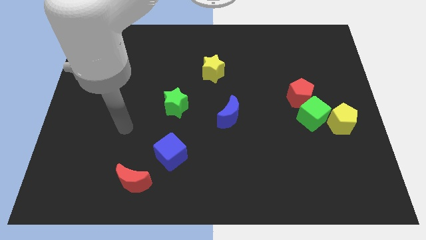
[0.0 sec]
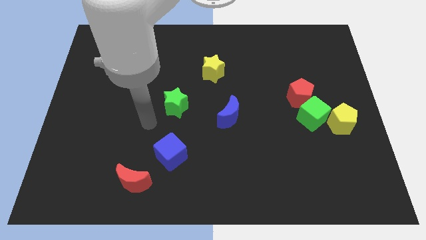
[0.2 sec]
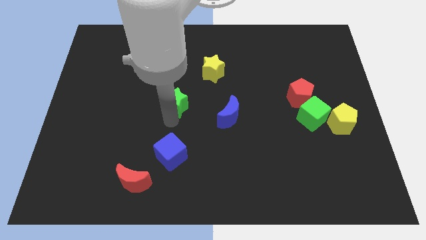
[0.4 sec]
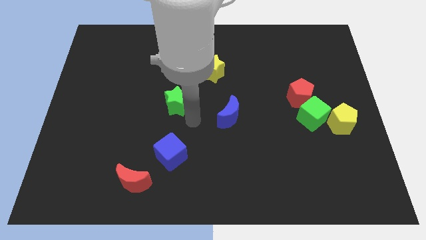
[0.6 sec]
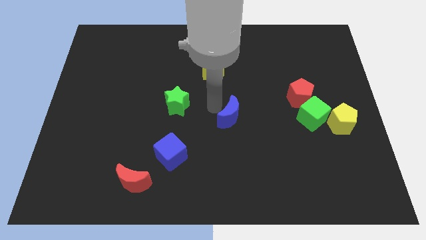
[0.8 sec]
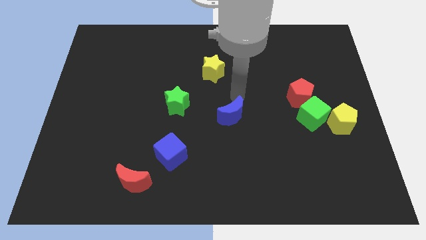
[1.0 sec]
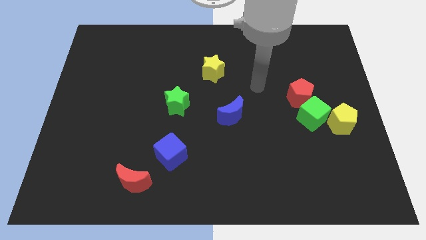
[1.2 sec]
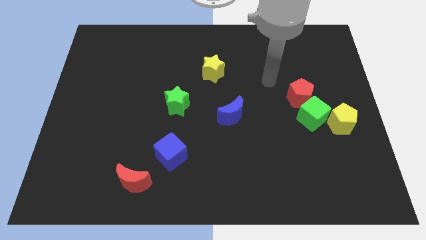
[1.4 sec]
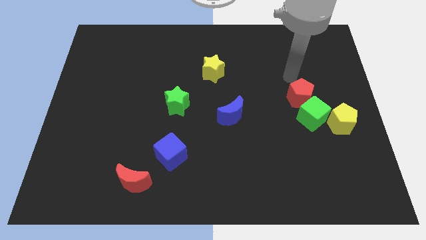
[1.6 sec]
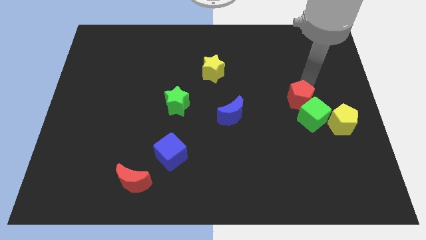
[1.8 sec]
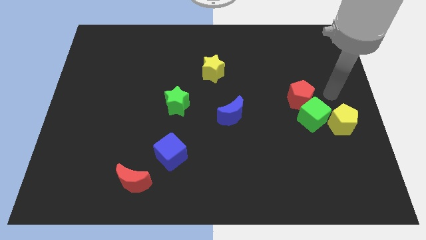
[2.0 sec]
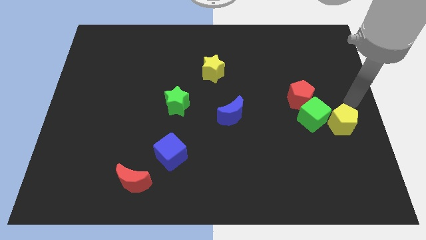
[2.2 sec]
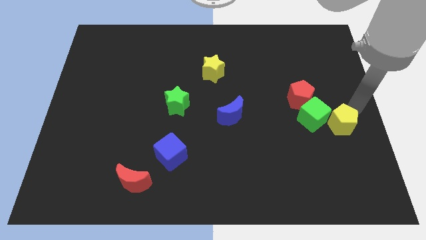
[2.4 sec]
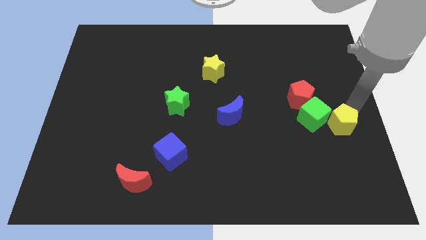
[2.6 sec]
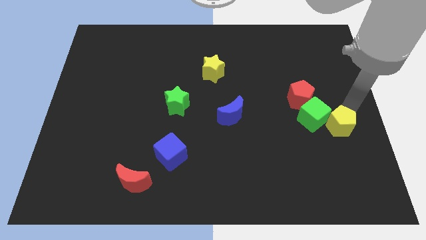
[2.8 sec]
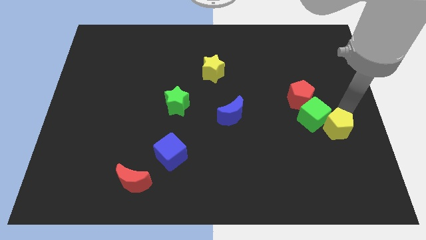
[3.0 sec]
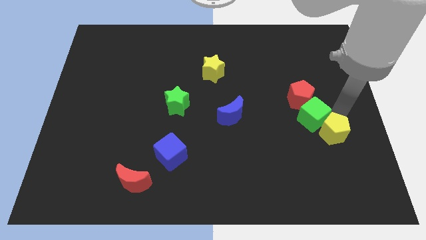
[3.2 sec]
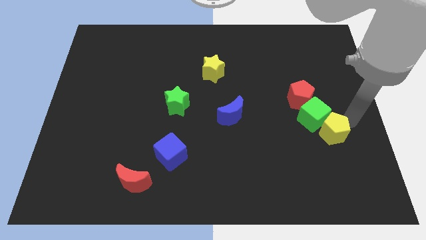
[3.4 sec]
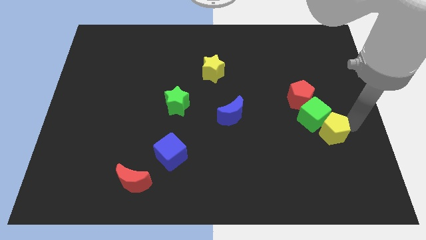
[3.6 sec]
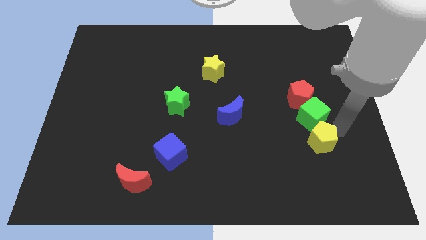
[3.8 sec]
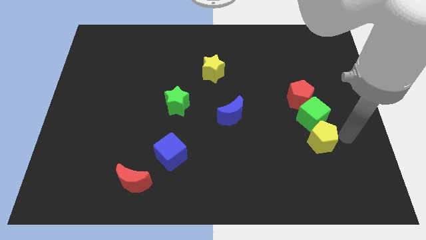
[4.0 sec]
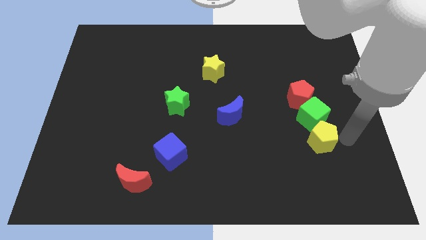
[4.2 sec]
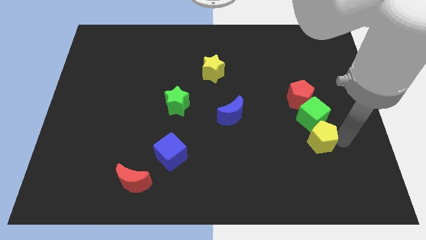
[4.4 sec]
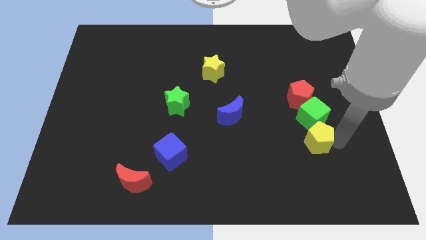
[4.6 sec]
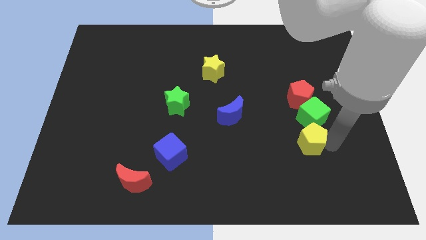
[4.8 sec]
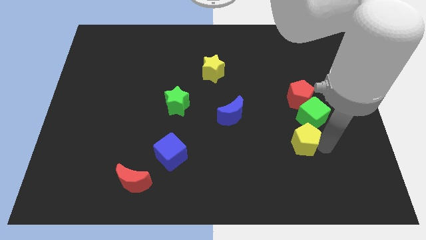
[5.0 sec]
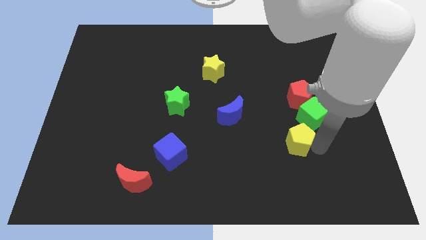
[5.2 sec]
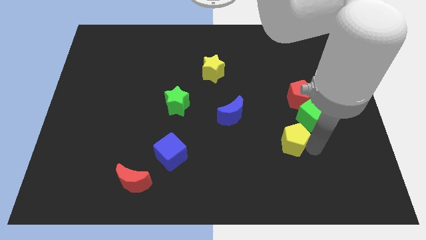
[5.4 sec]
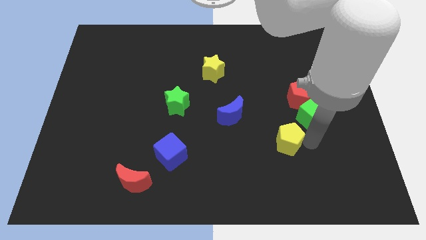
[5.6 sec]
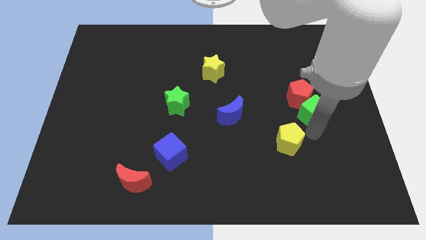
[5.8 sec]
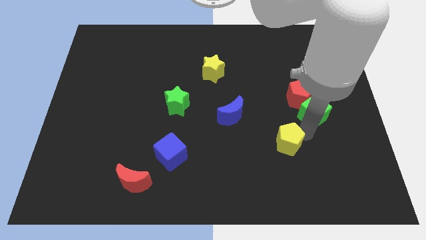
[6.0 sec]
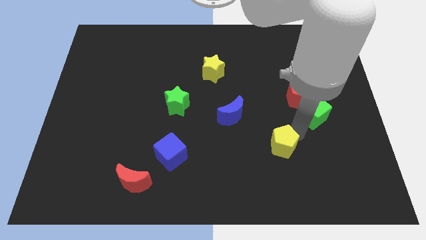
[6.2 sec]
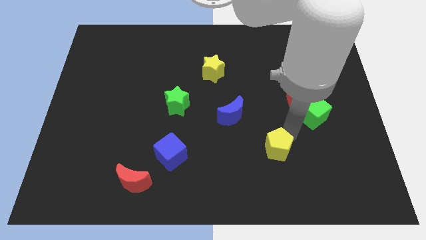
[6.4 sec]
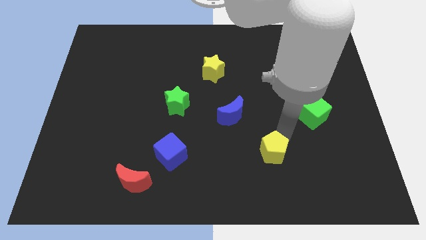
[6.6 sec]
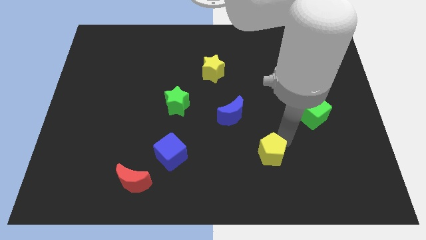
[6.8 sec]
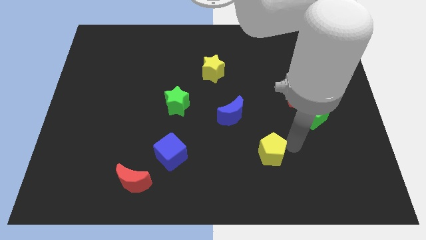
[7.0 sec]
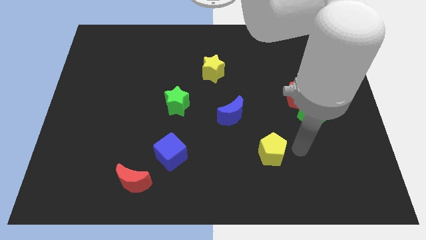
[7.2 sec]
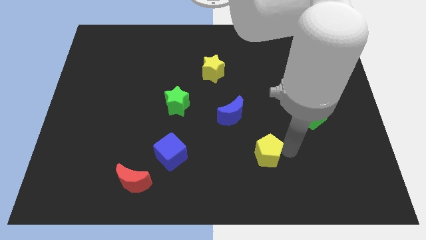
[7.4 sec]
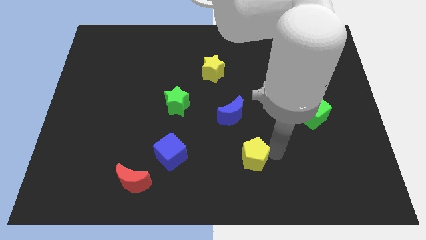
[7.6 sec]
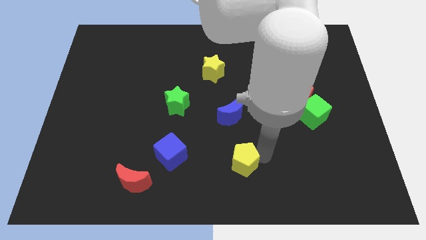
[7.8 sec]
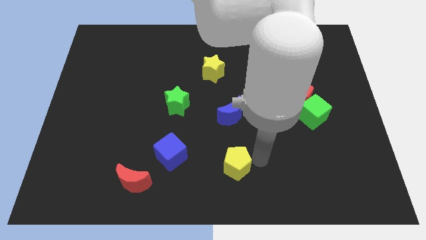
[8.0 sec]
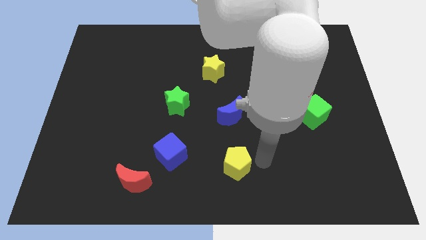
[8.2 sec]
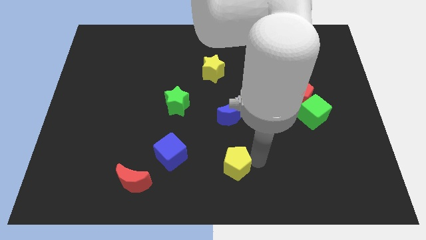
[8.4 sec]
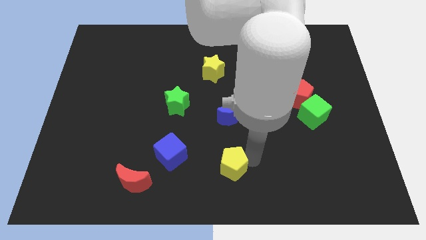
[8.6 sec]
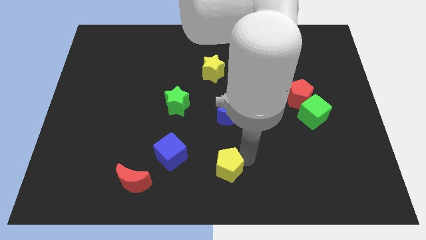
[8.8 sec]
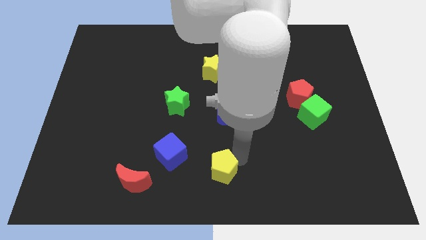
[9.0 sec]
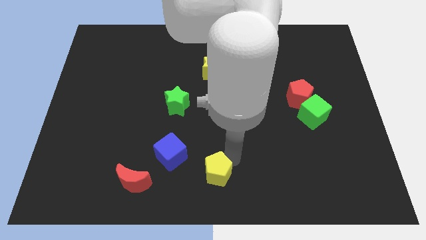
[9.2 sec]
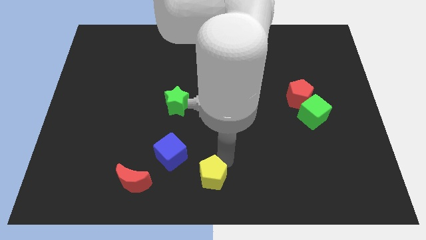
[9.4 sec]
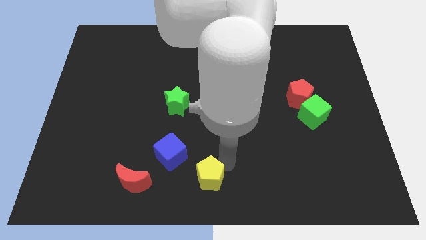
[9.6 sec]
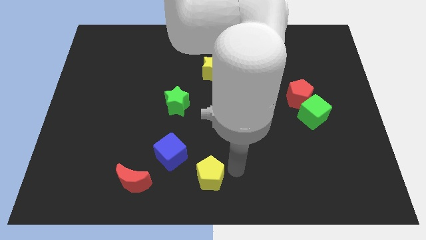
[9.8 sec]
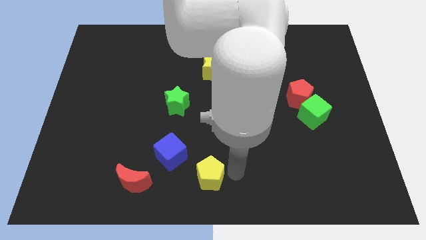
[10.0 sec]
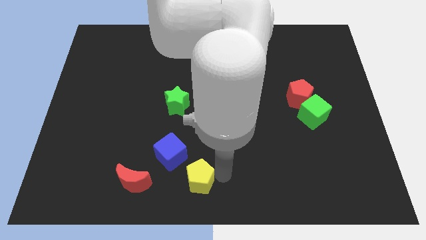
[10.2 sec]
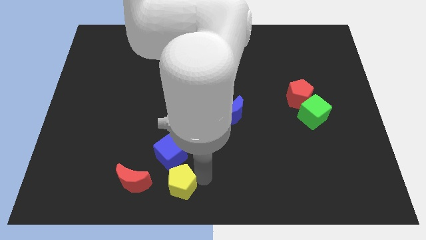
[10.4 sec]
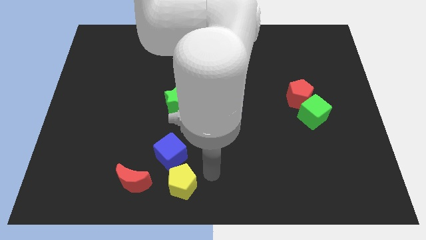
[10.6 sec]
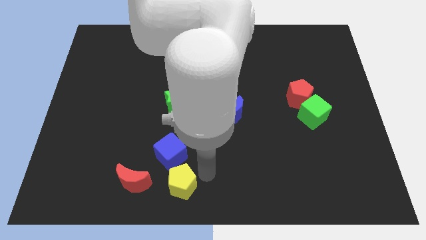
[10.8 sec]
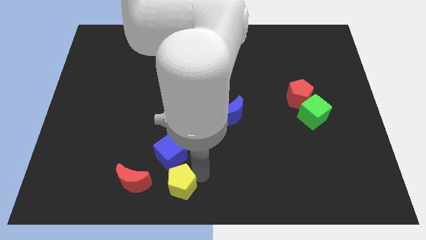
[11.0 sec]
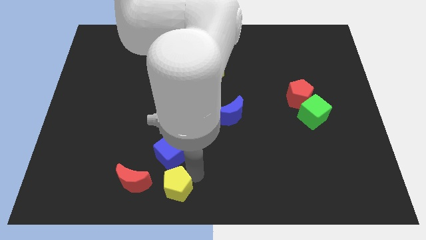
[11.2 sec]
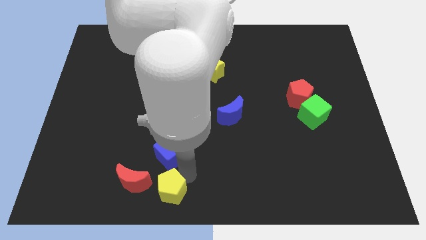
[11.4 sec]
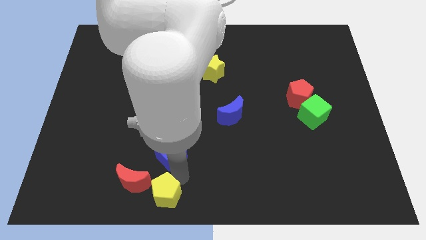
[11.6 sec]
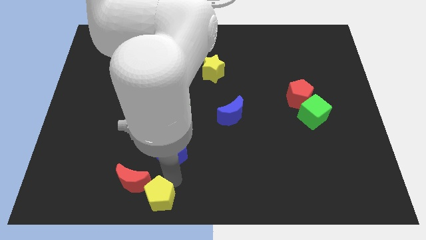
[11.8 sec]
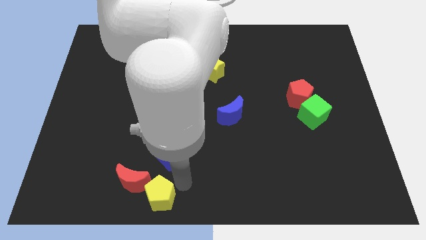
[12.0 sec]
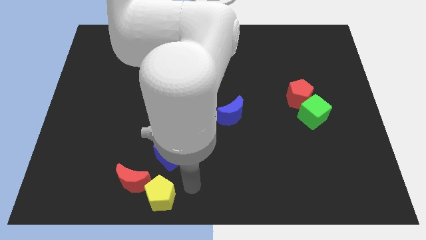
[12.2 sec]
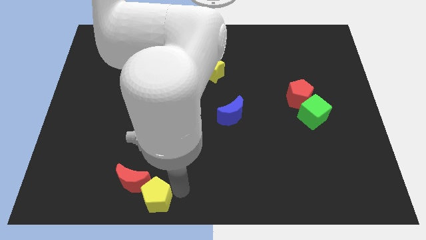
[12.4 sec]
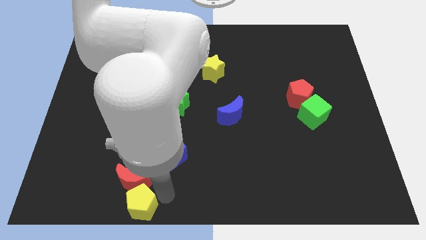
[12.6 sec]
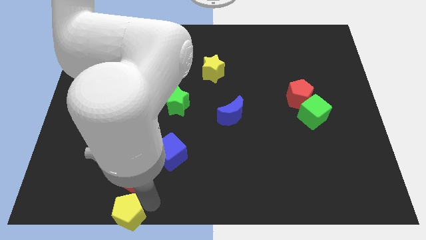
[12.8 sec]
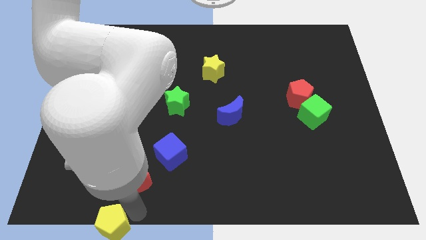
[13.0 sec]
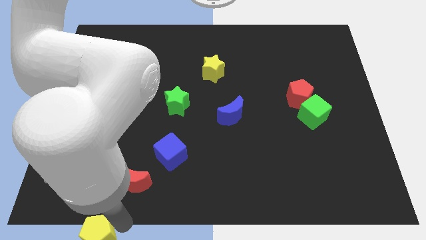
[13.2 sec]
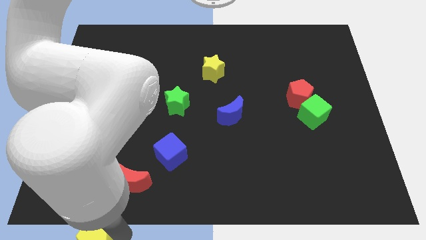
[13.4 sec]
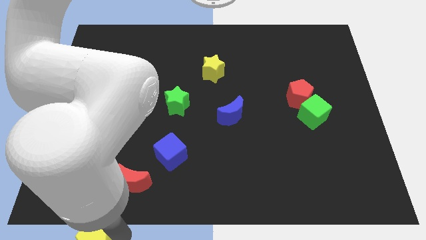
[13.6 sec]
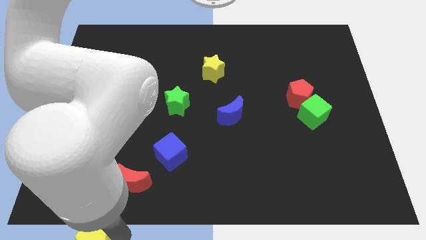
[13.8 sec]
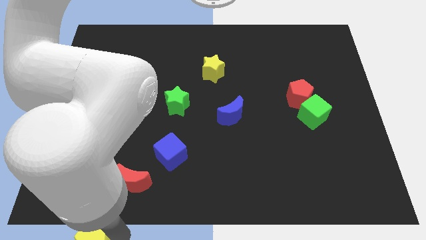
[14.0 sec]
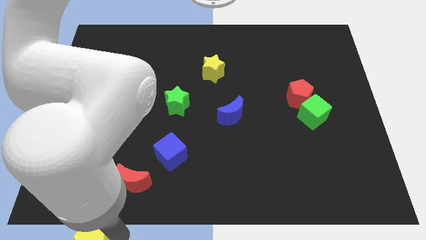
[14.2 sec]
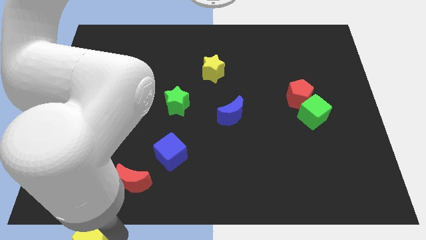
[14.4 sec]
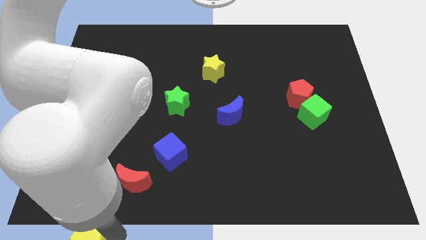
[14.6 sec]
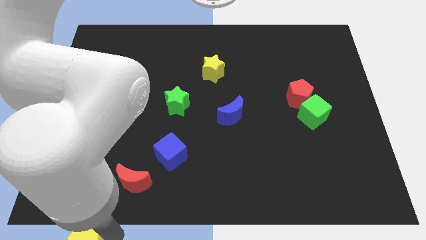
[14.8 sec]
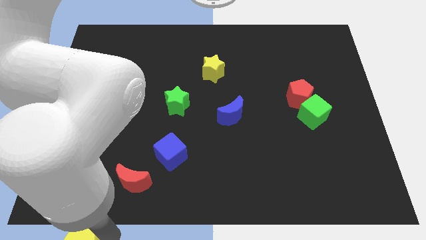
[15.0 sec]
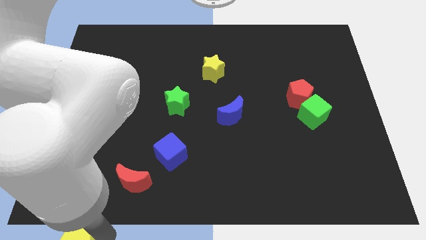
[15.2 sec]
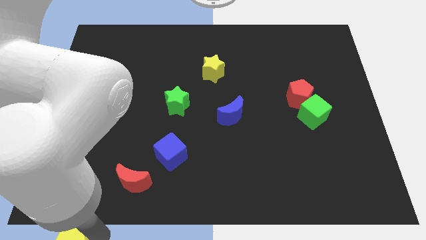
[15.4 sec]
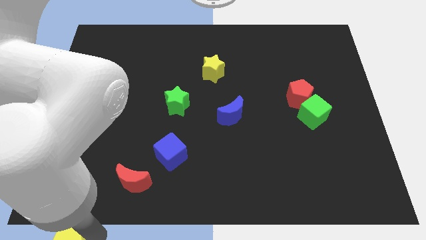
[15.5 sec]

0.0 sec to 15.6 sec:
slide the yellow pentagon to the bottom left
